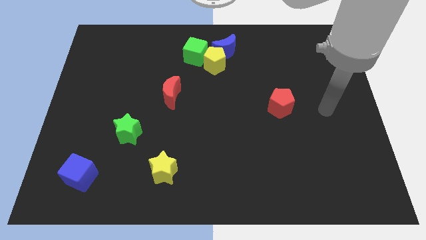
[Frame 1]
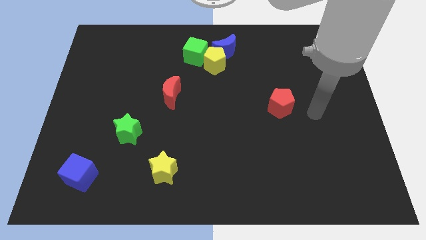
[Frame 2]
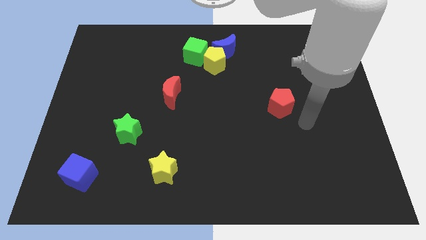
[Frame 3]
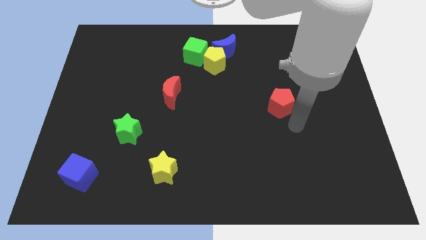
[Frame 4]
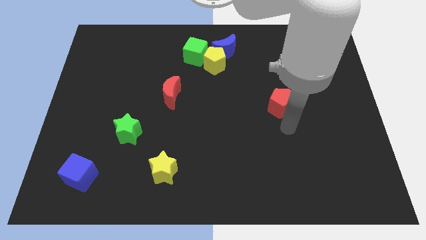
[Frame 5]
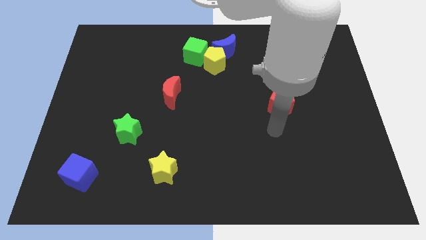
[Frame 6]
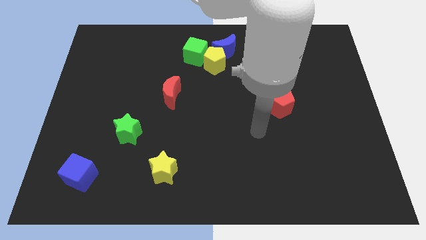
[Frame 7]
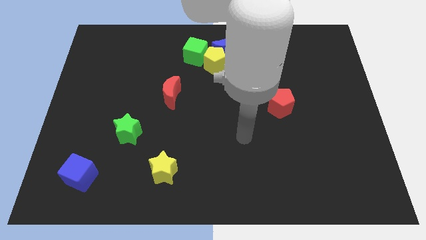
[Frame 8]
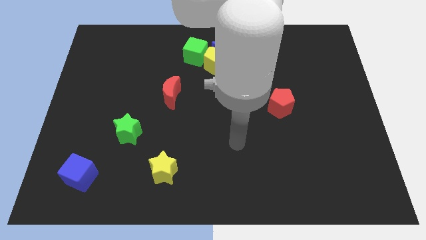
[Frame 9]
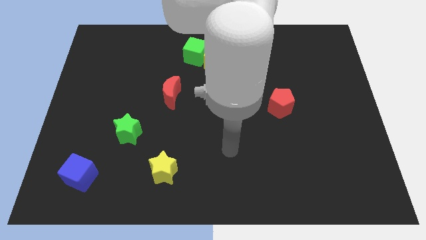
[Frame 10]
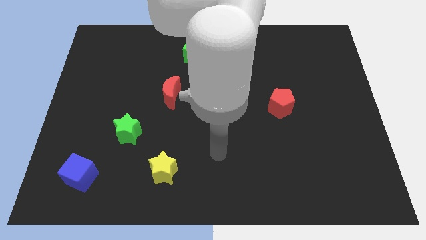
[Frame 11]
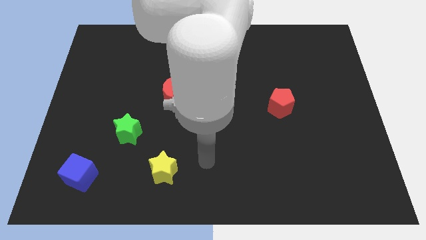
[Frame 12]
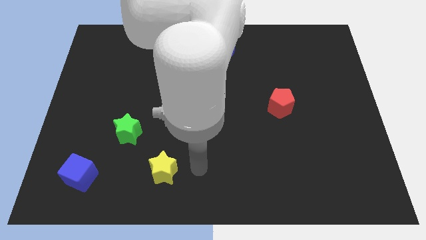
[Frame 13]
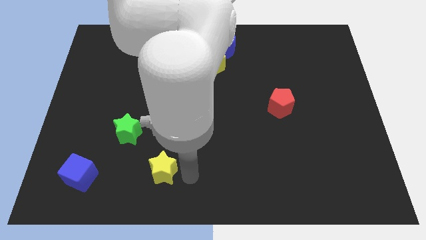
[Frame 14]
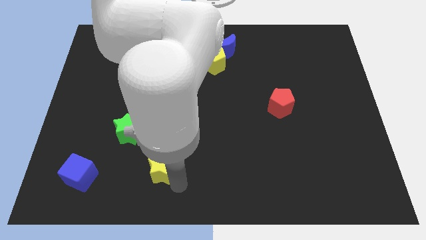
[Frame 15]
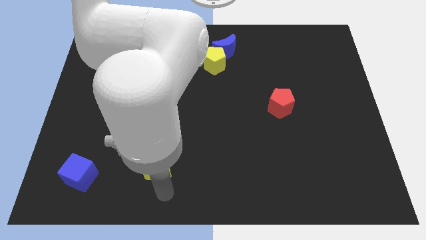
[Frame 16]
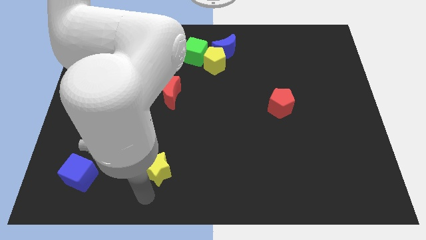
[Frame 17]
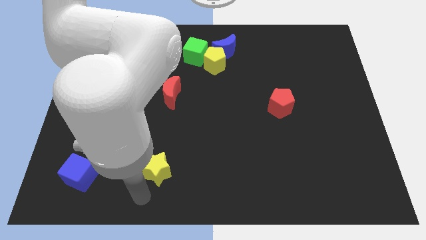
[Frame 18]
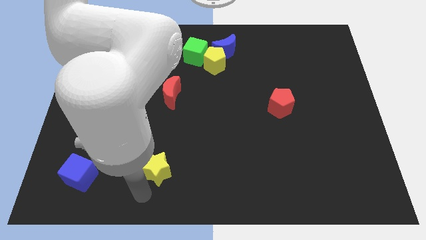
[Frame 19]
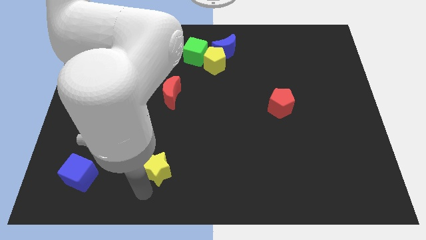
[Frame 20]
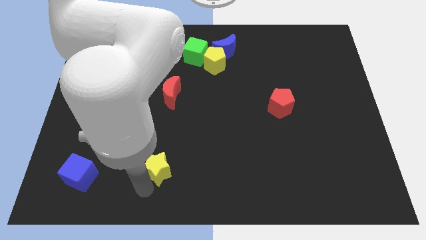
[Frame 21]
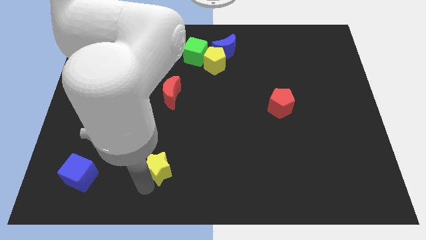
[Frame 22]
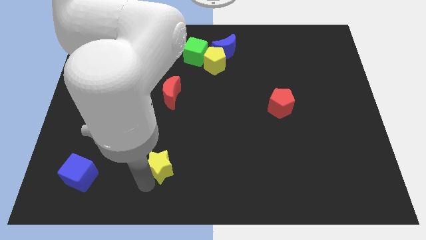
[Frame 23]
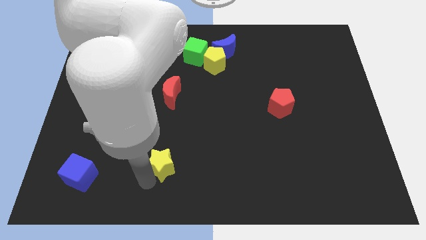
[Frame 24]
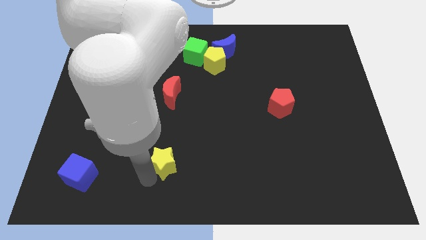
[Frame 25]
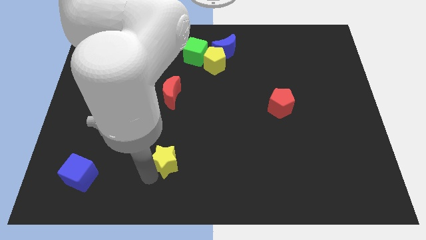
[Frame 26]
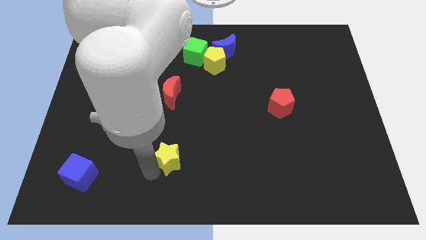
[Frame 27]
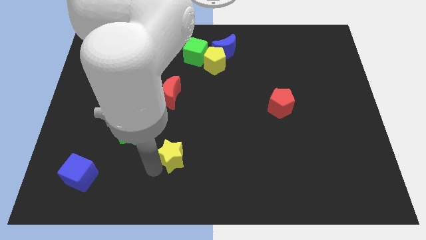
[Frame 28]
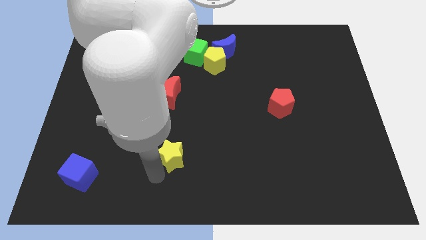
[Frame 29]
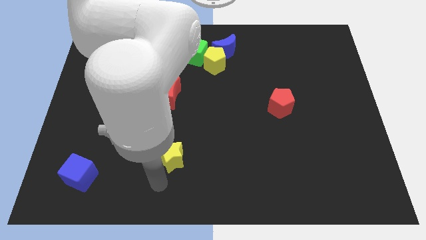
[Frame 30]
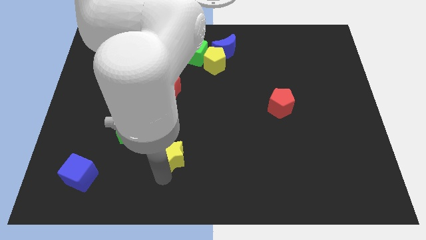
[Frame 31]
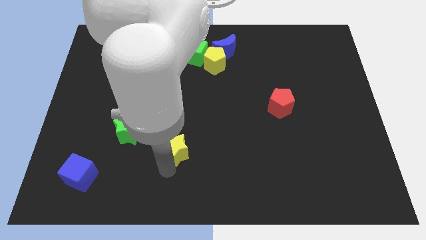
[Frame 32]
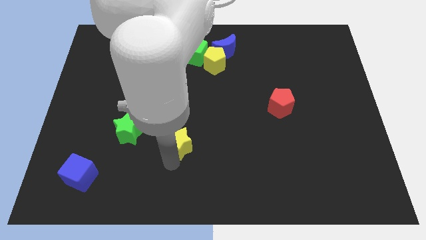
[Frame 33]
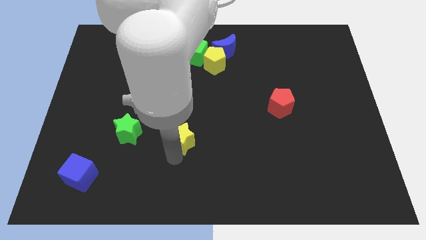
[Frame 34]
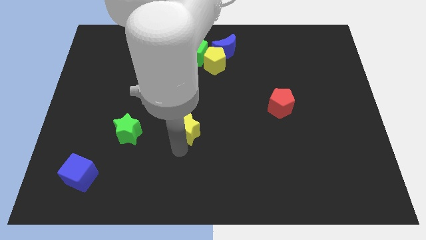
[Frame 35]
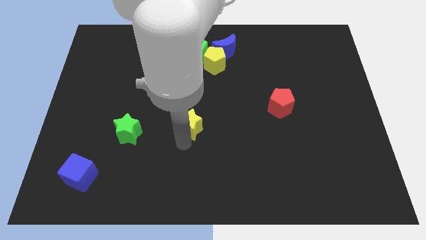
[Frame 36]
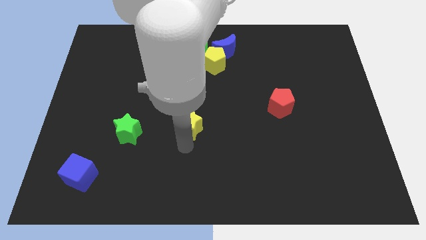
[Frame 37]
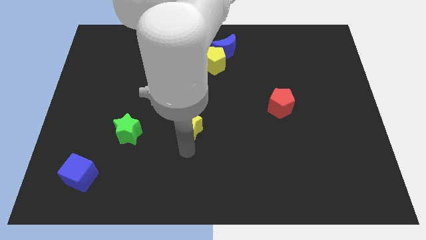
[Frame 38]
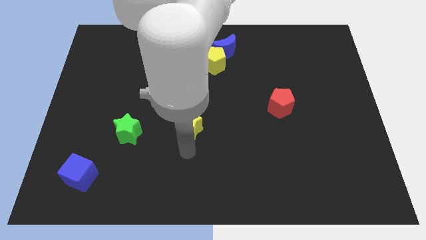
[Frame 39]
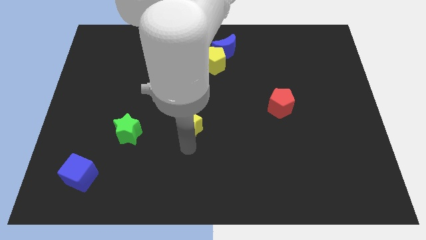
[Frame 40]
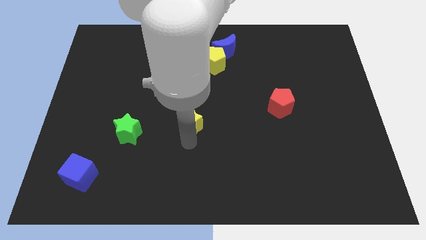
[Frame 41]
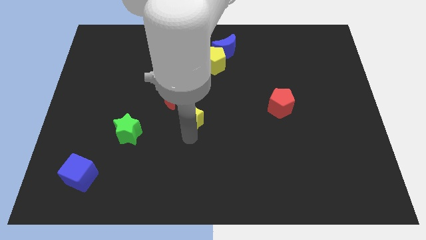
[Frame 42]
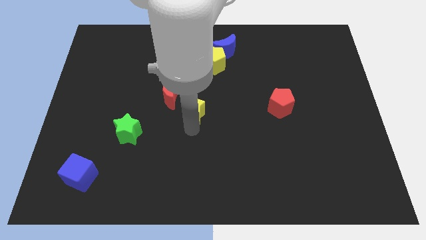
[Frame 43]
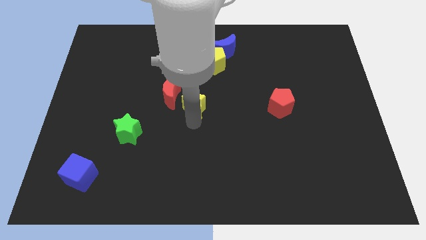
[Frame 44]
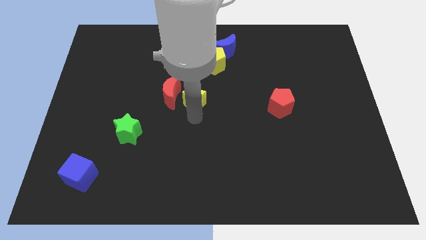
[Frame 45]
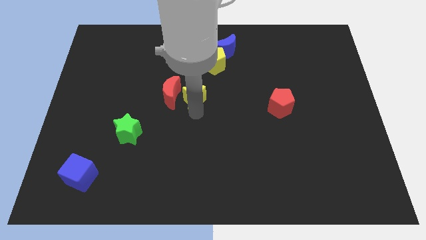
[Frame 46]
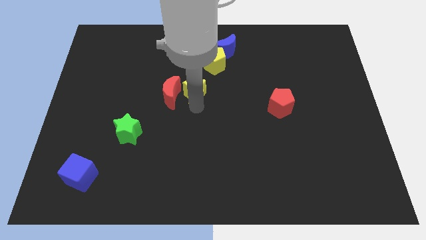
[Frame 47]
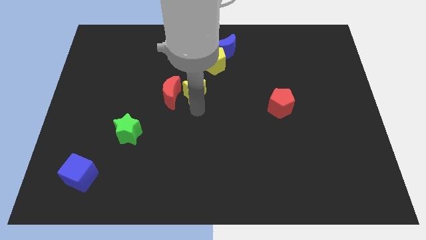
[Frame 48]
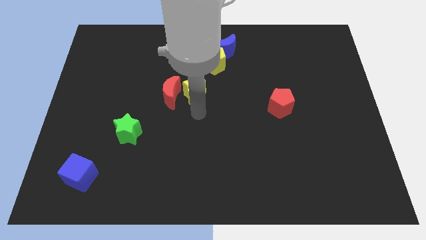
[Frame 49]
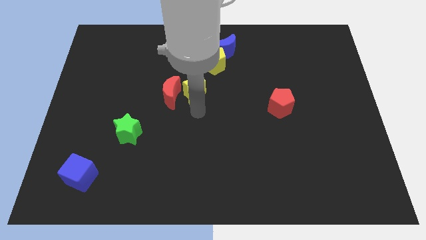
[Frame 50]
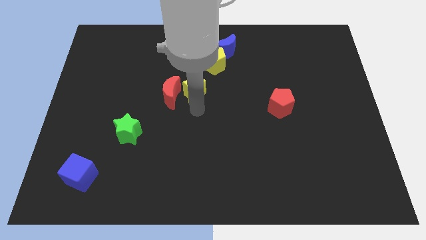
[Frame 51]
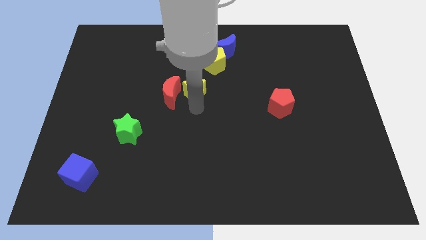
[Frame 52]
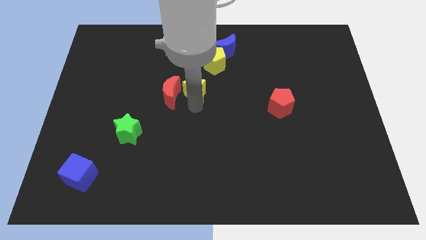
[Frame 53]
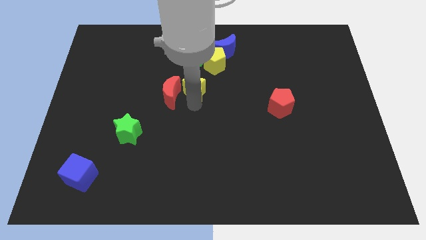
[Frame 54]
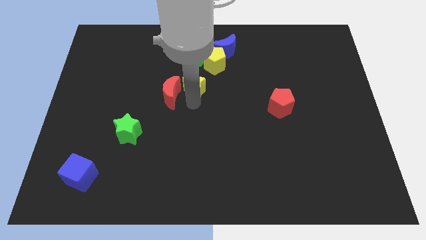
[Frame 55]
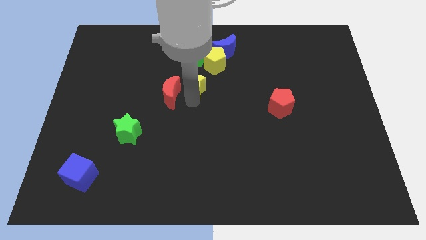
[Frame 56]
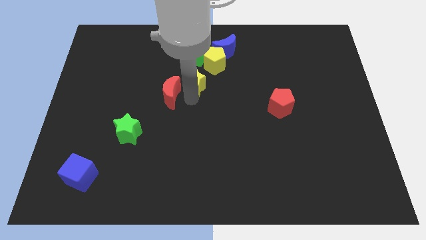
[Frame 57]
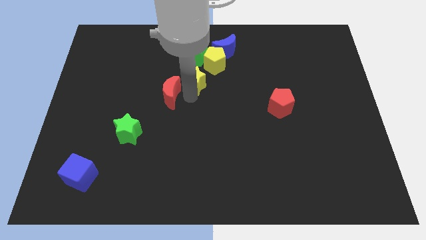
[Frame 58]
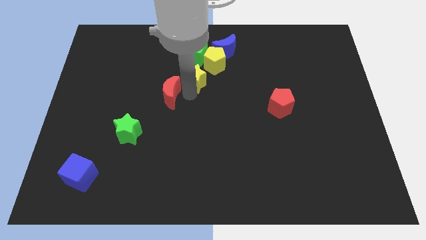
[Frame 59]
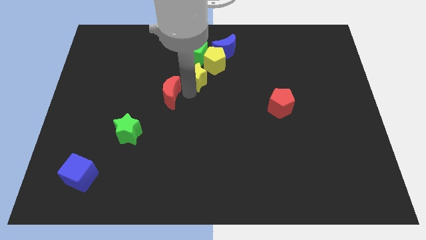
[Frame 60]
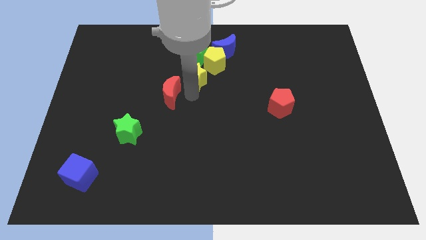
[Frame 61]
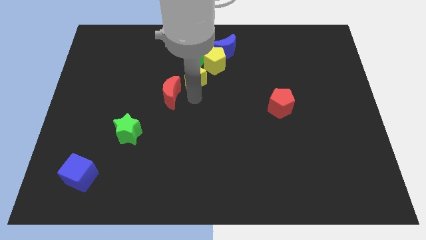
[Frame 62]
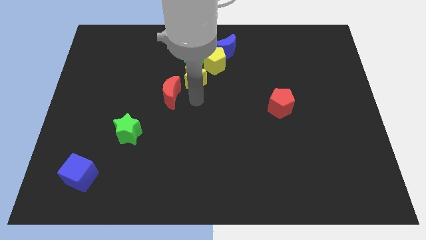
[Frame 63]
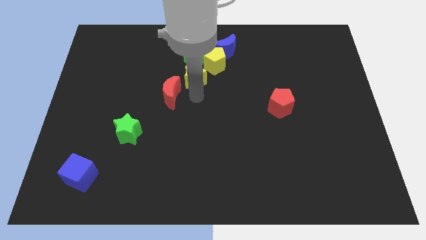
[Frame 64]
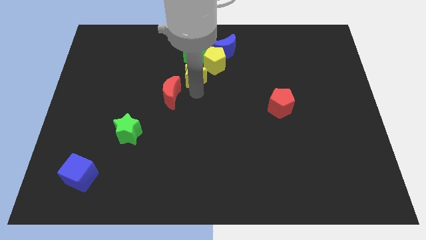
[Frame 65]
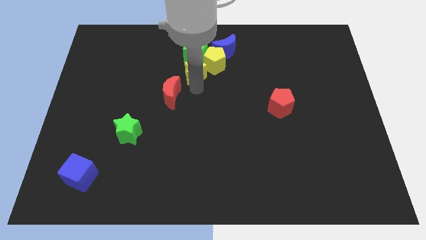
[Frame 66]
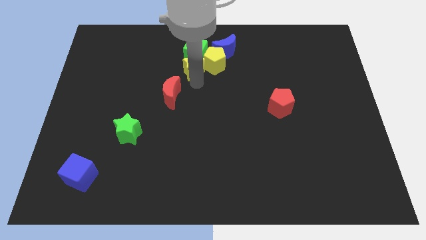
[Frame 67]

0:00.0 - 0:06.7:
push the yellow star to the green cube
